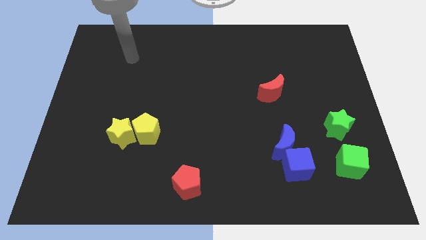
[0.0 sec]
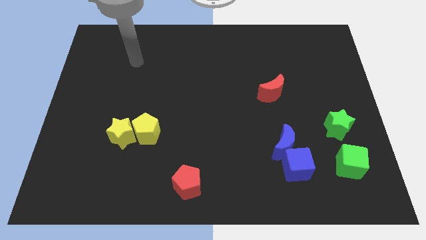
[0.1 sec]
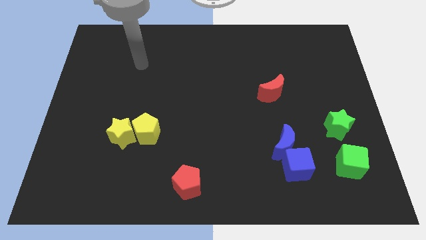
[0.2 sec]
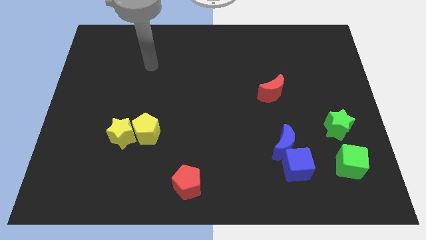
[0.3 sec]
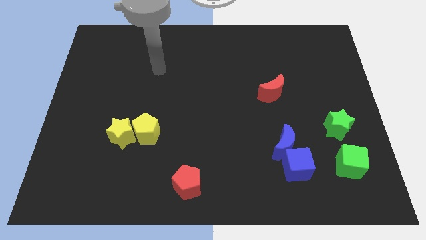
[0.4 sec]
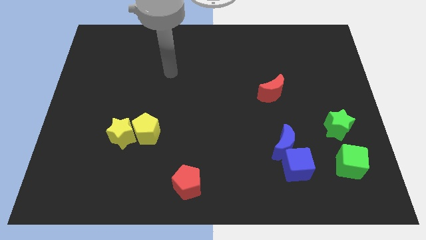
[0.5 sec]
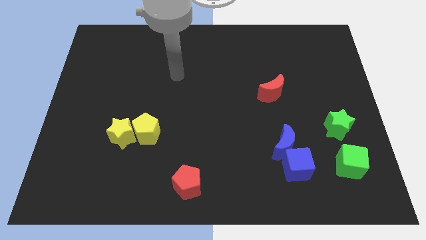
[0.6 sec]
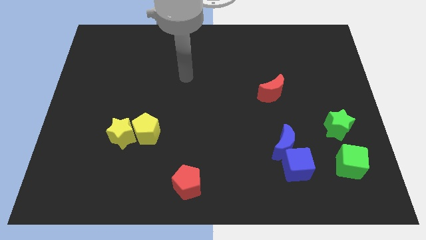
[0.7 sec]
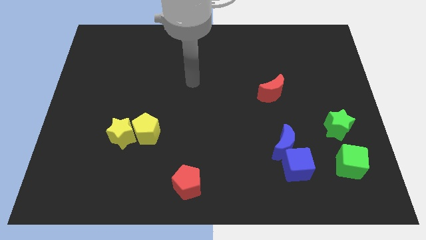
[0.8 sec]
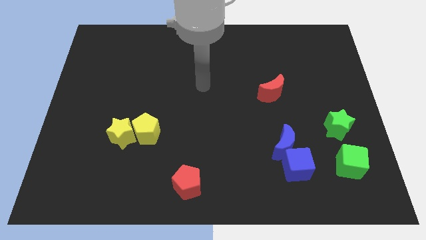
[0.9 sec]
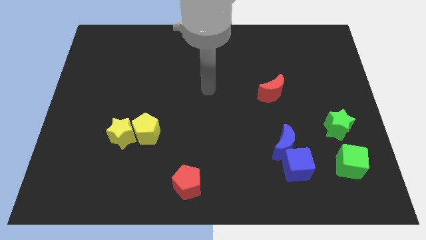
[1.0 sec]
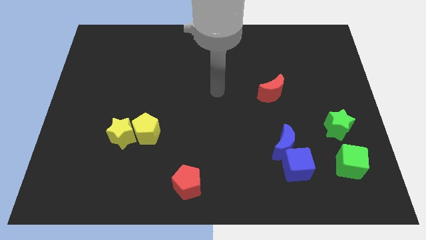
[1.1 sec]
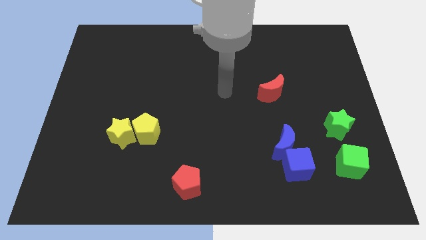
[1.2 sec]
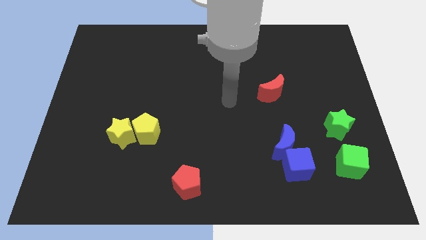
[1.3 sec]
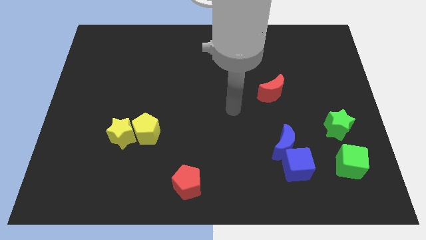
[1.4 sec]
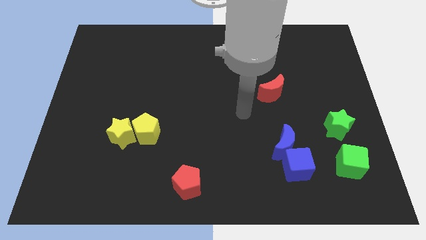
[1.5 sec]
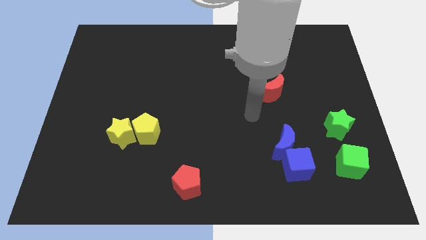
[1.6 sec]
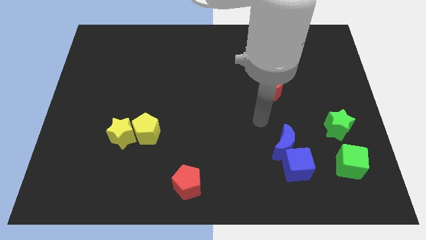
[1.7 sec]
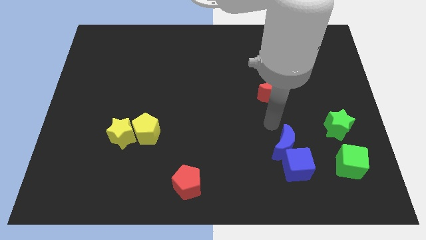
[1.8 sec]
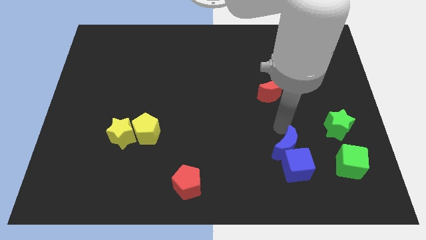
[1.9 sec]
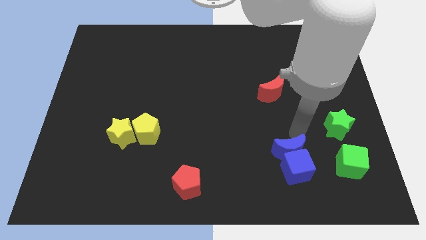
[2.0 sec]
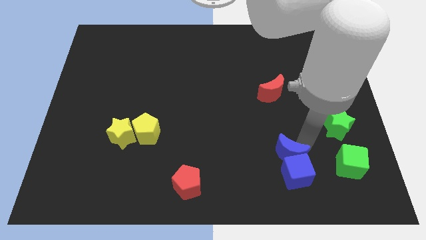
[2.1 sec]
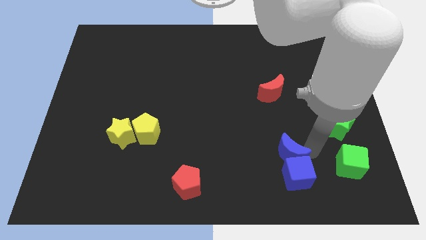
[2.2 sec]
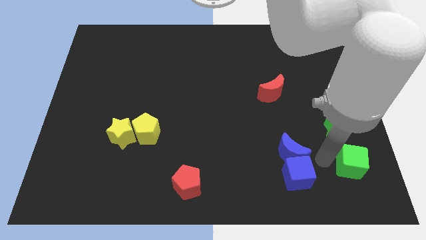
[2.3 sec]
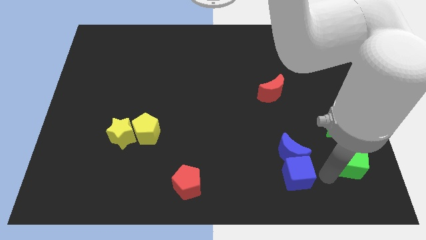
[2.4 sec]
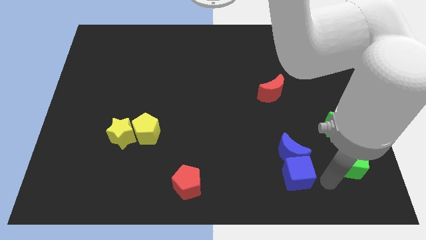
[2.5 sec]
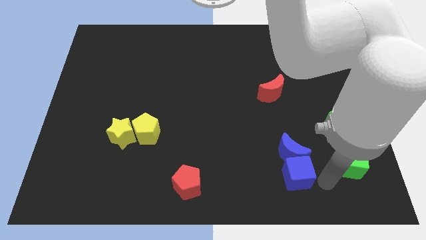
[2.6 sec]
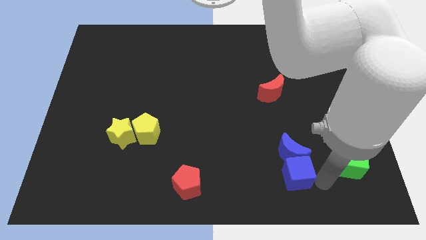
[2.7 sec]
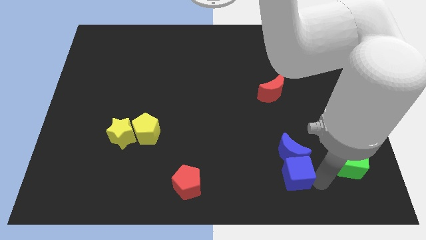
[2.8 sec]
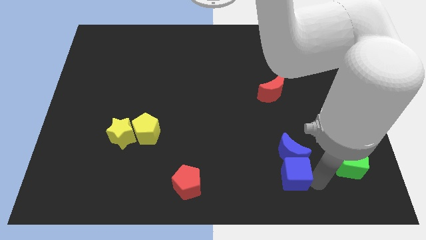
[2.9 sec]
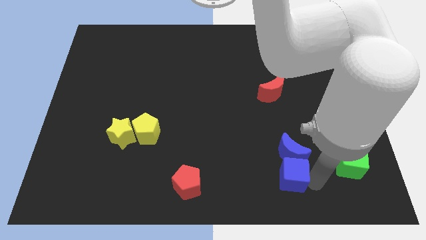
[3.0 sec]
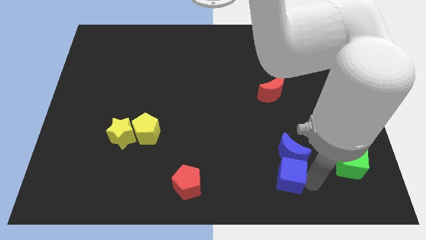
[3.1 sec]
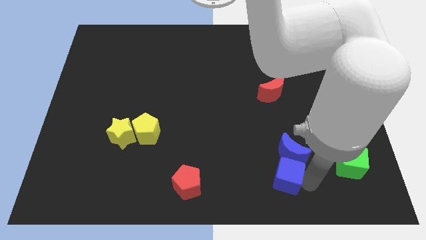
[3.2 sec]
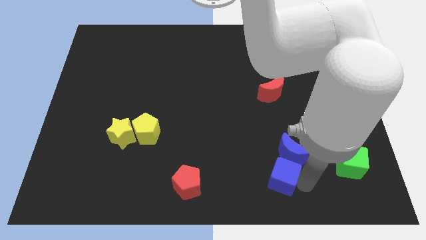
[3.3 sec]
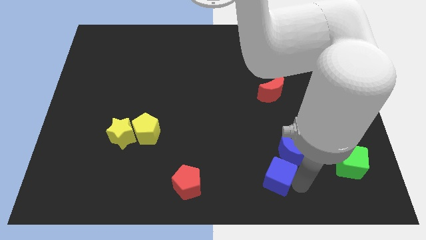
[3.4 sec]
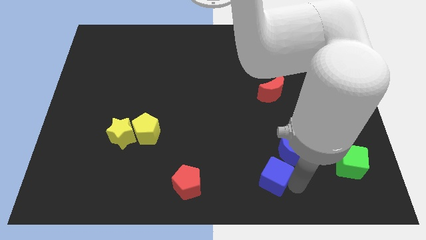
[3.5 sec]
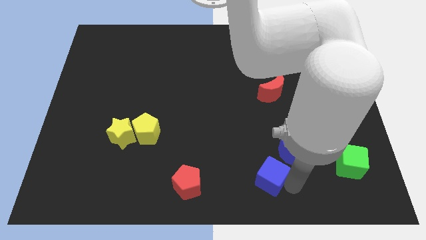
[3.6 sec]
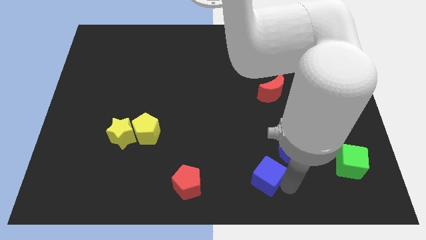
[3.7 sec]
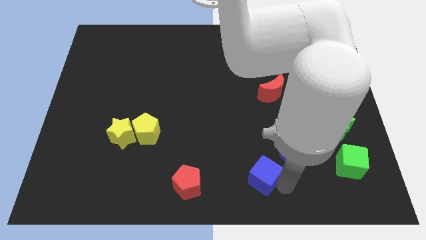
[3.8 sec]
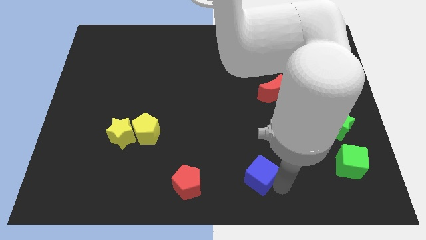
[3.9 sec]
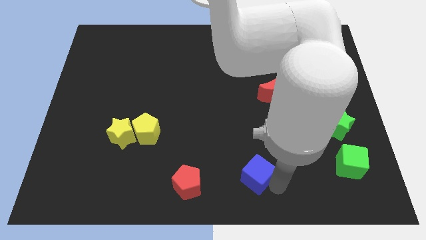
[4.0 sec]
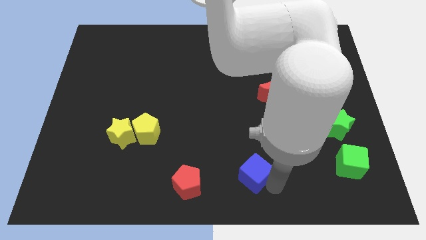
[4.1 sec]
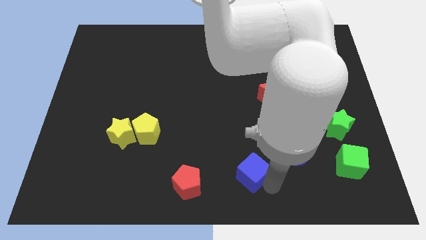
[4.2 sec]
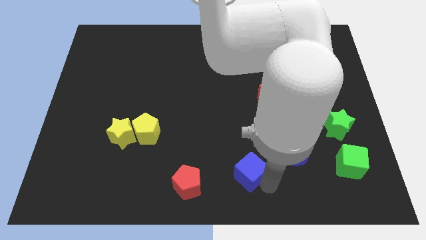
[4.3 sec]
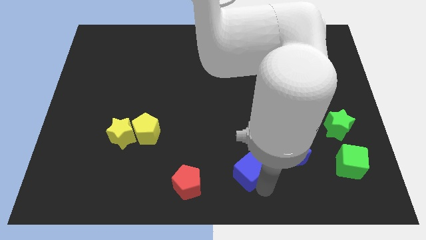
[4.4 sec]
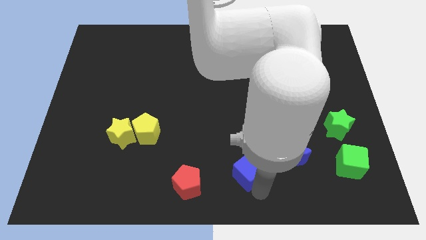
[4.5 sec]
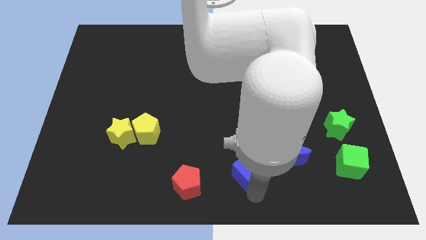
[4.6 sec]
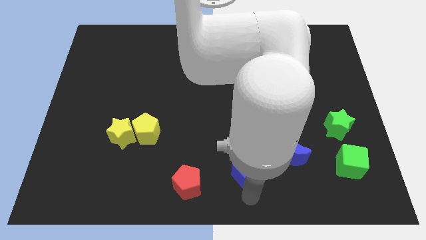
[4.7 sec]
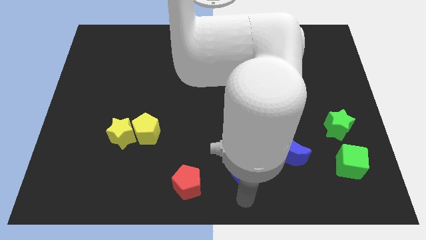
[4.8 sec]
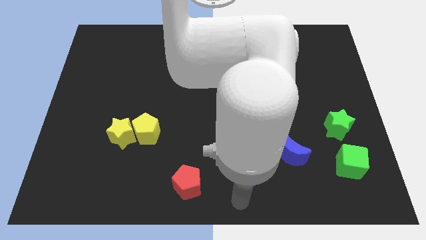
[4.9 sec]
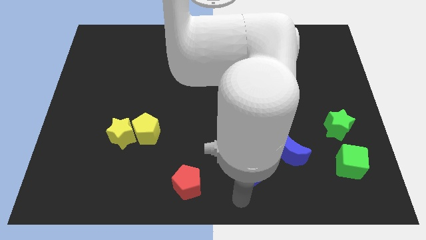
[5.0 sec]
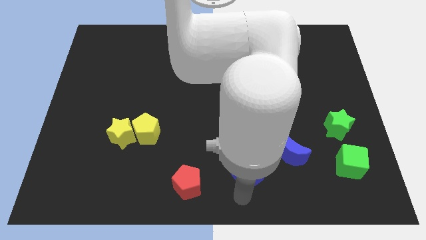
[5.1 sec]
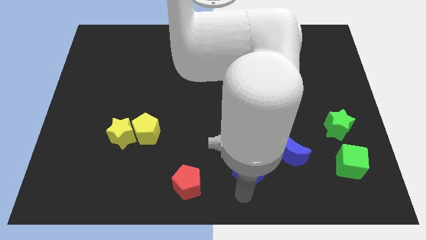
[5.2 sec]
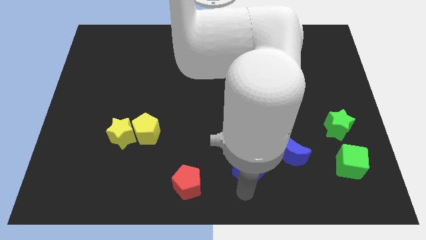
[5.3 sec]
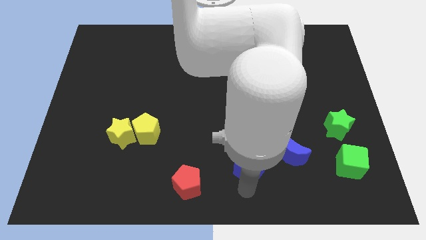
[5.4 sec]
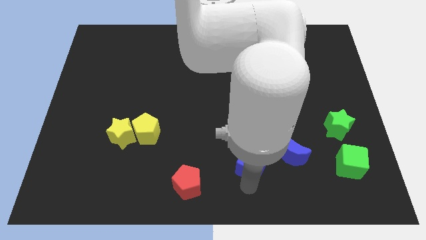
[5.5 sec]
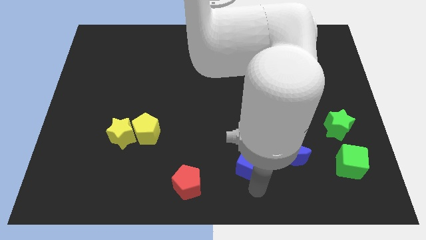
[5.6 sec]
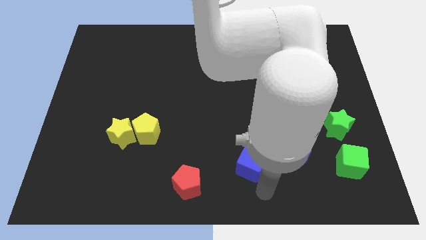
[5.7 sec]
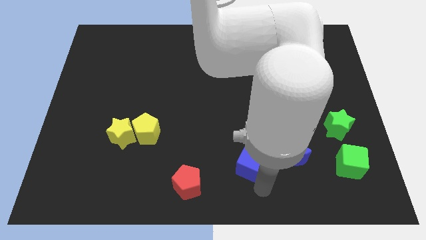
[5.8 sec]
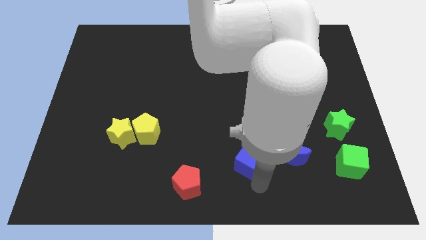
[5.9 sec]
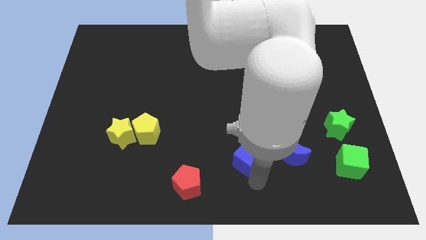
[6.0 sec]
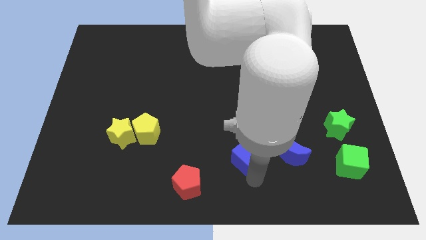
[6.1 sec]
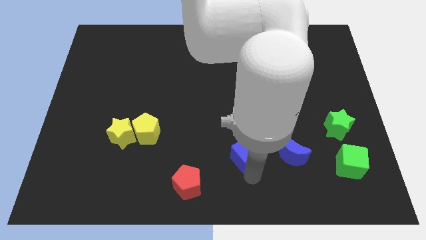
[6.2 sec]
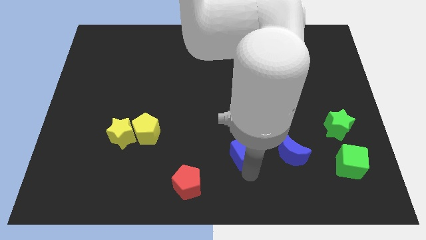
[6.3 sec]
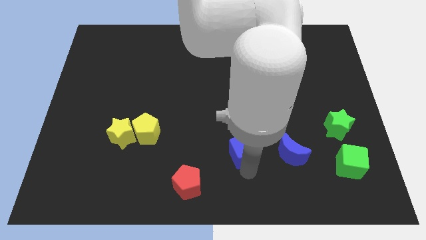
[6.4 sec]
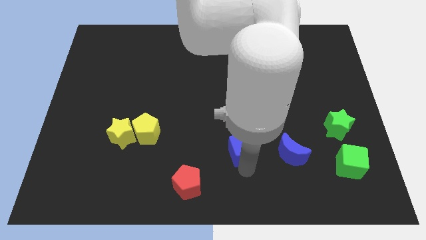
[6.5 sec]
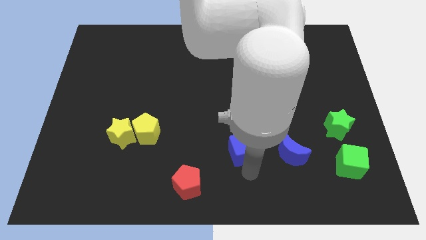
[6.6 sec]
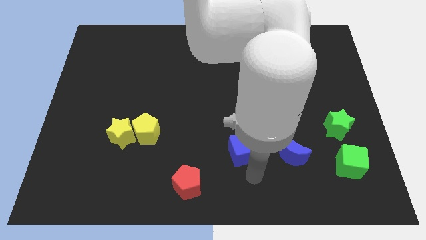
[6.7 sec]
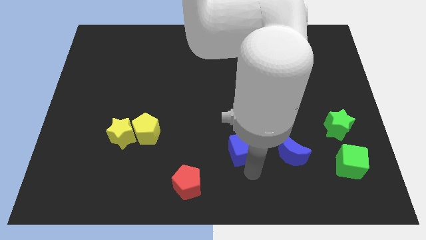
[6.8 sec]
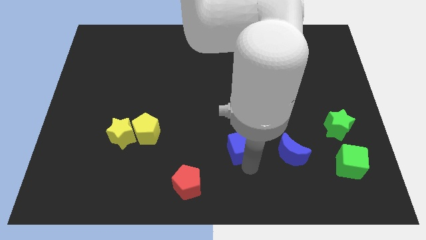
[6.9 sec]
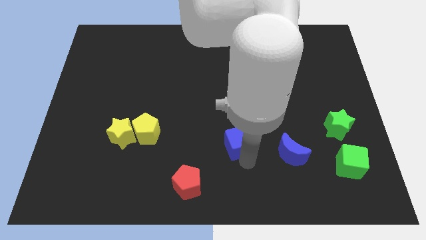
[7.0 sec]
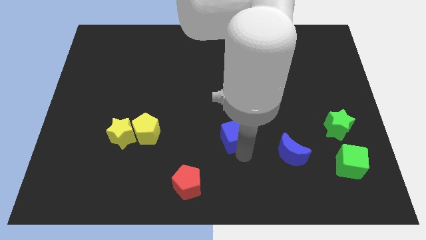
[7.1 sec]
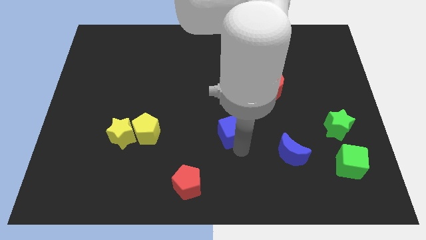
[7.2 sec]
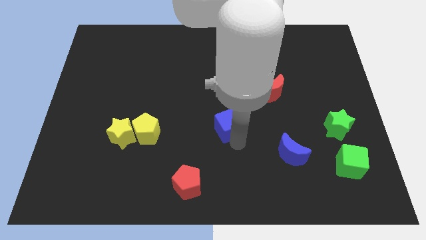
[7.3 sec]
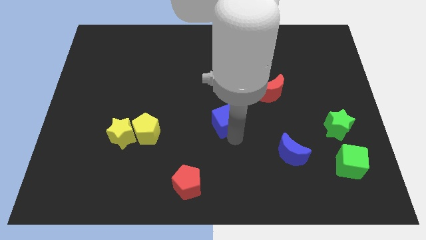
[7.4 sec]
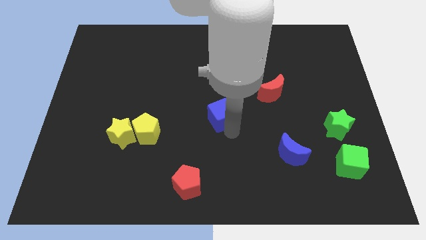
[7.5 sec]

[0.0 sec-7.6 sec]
move the blue cube upwards and left diagonally

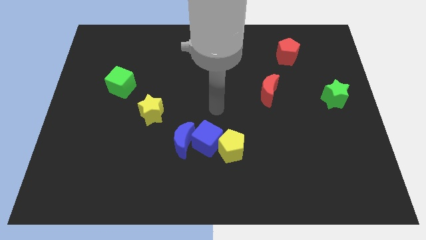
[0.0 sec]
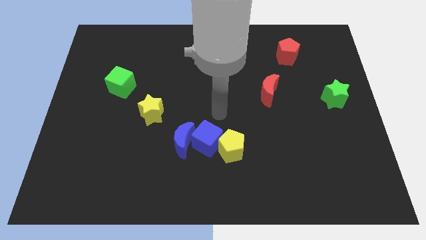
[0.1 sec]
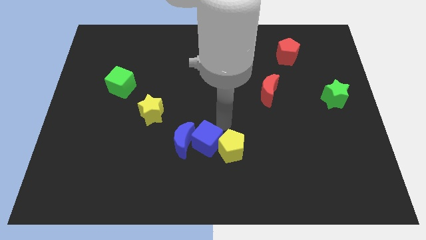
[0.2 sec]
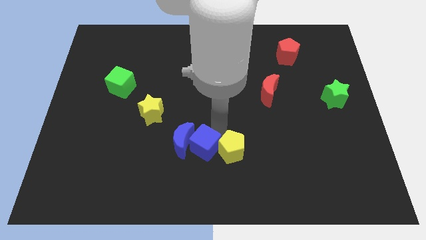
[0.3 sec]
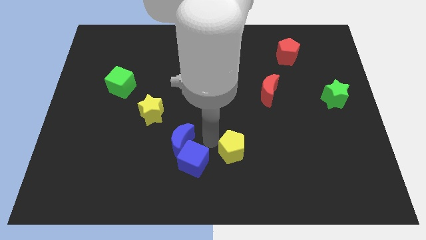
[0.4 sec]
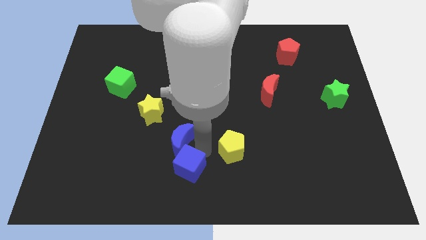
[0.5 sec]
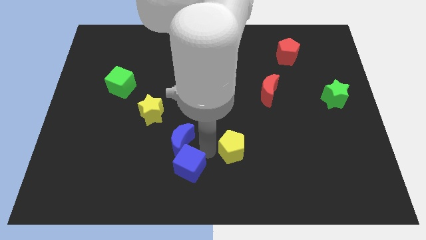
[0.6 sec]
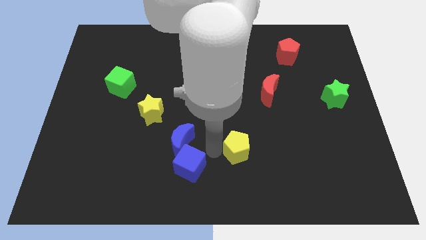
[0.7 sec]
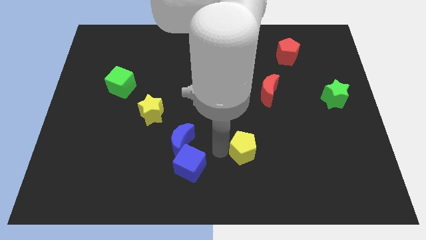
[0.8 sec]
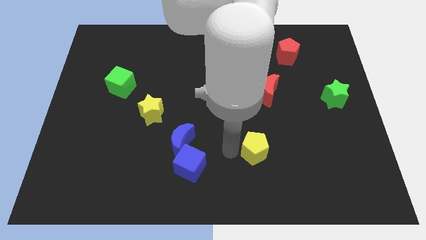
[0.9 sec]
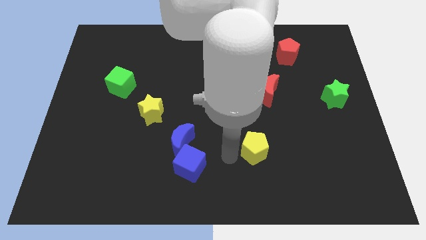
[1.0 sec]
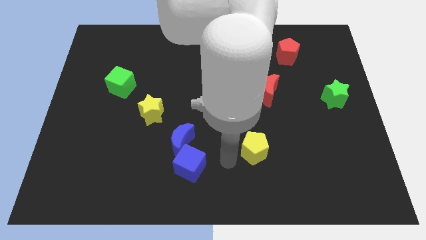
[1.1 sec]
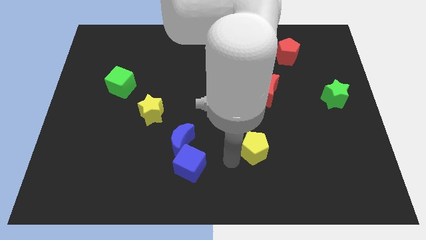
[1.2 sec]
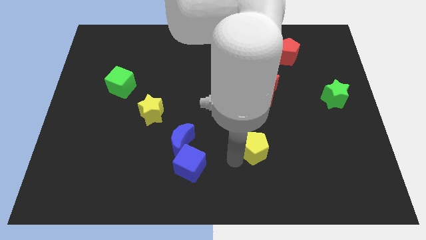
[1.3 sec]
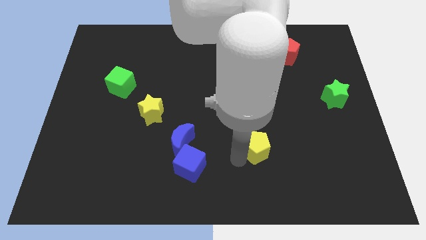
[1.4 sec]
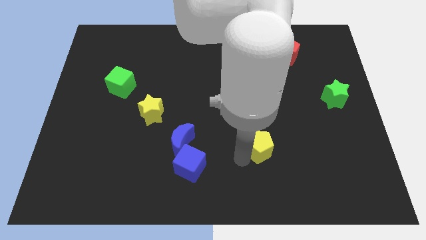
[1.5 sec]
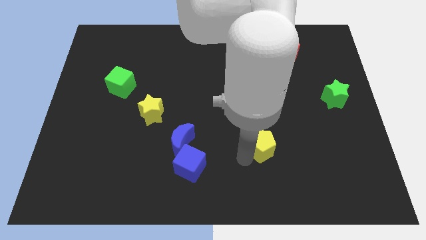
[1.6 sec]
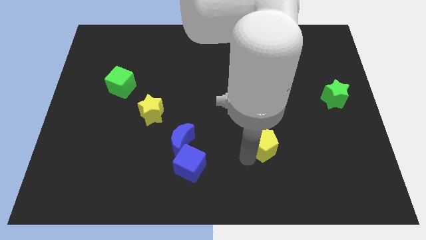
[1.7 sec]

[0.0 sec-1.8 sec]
move the yellow pentagon right slightly
